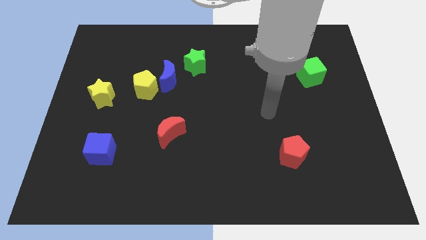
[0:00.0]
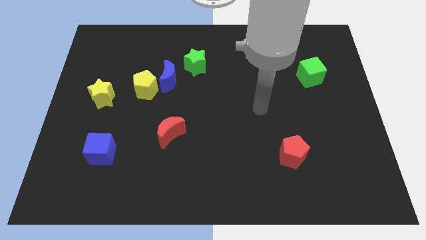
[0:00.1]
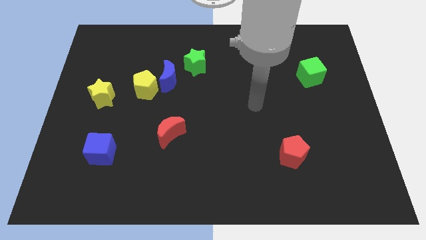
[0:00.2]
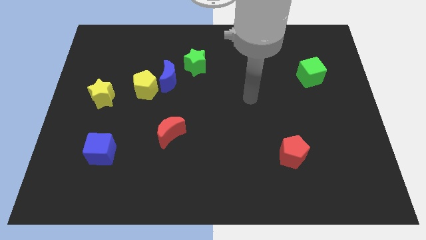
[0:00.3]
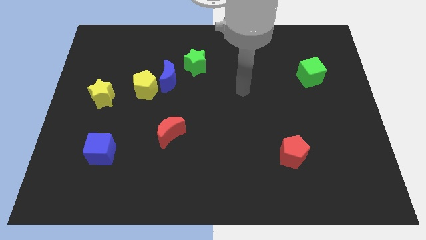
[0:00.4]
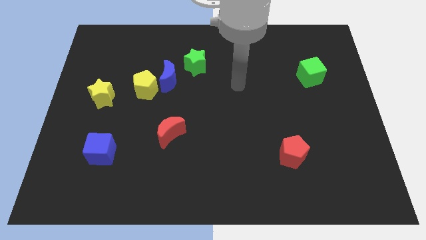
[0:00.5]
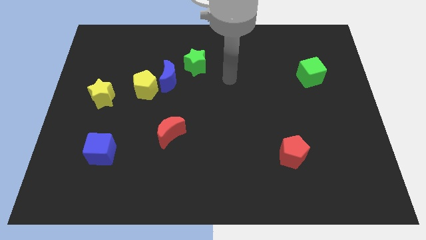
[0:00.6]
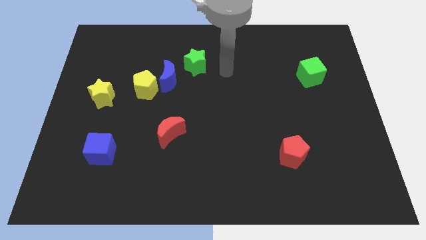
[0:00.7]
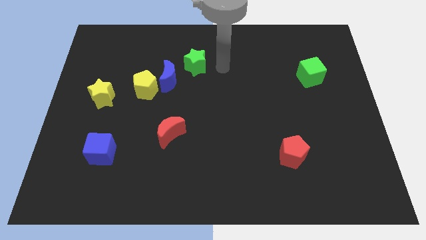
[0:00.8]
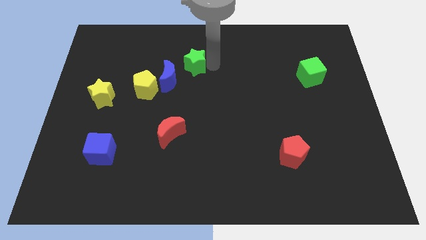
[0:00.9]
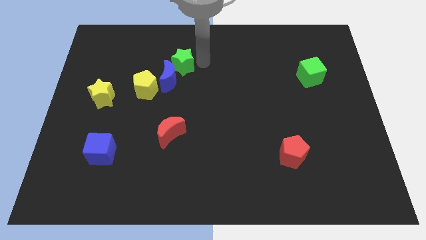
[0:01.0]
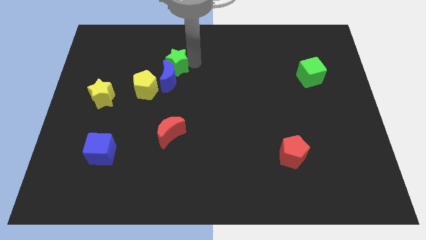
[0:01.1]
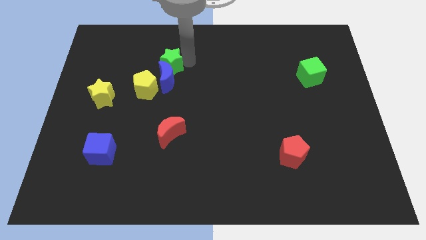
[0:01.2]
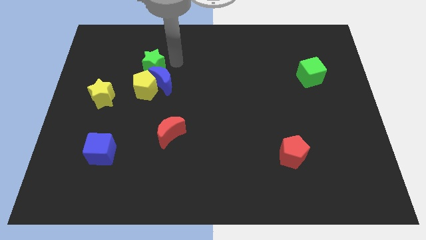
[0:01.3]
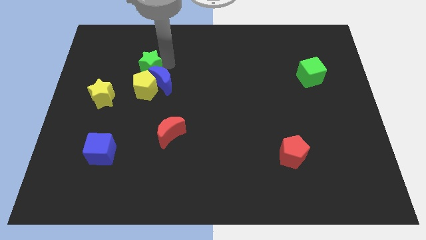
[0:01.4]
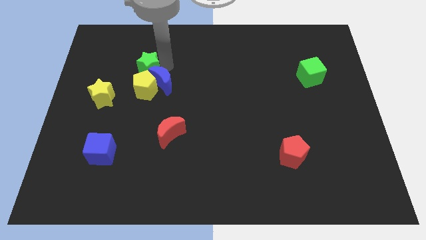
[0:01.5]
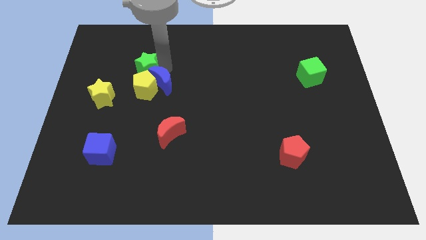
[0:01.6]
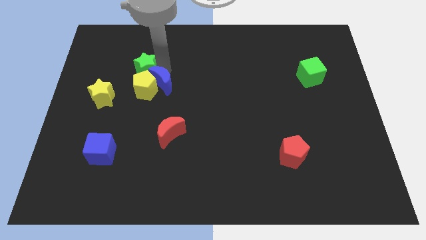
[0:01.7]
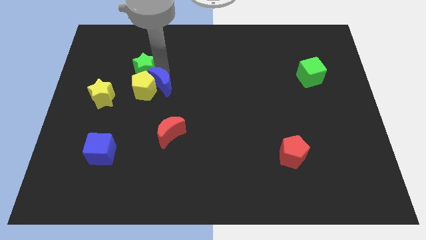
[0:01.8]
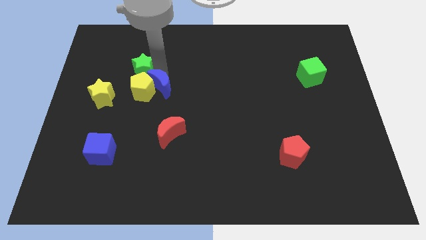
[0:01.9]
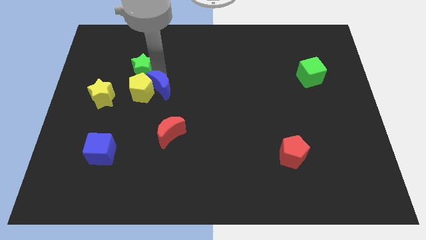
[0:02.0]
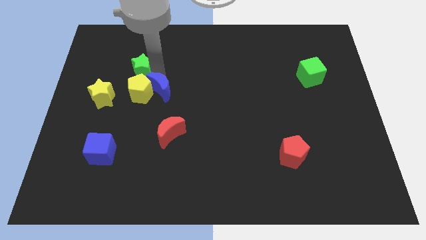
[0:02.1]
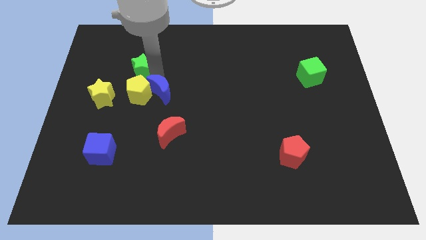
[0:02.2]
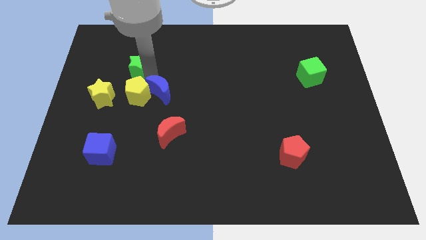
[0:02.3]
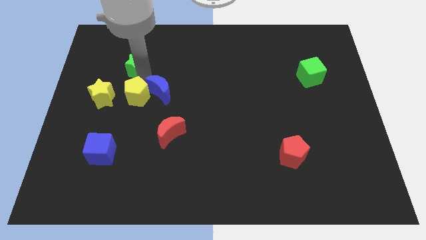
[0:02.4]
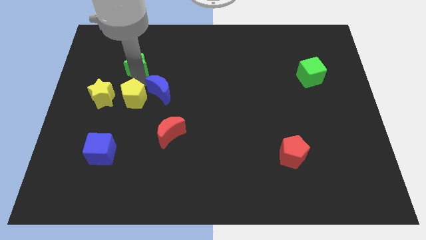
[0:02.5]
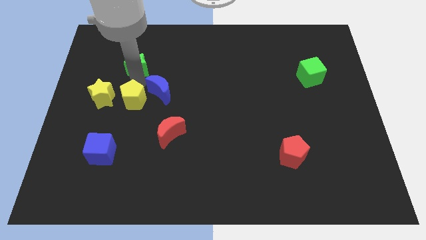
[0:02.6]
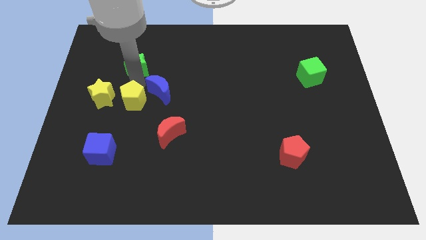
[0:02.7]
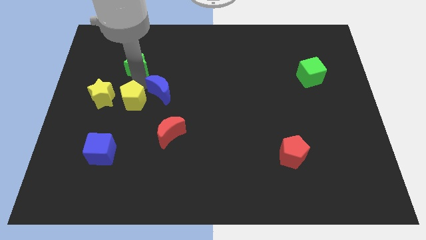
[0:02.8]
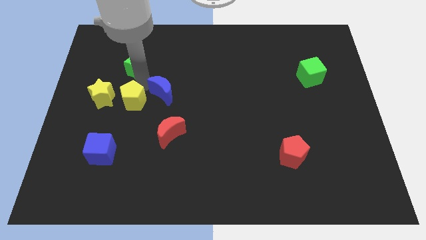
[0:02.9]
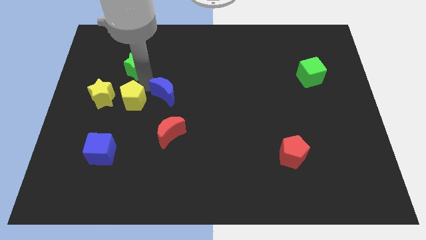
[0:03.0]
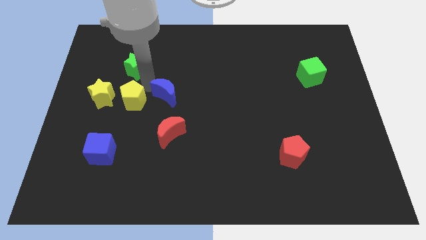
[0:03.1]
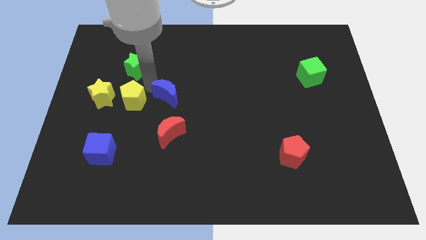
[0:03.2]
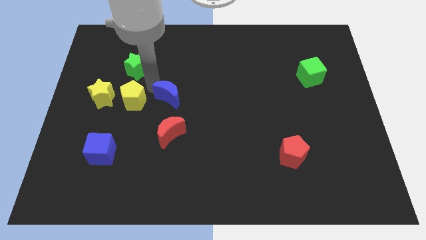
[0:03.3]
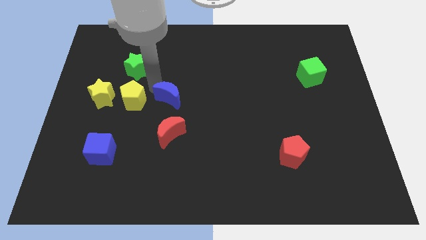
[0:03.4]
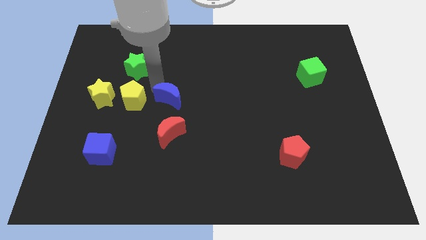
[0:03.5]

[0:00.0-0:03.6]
separate the blue moon from the yellow pentagon and green star

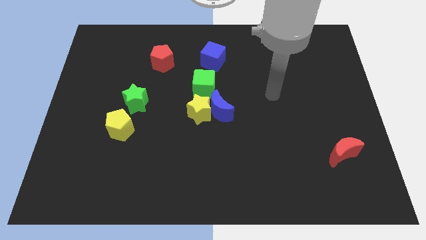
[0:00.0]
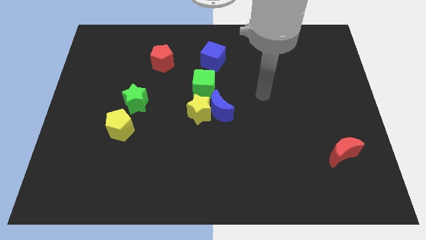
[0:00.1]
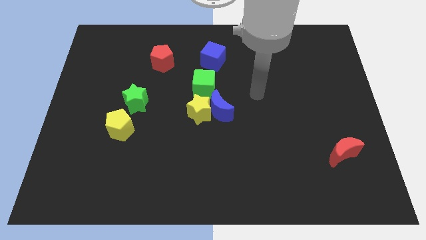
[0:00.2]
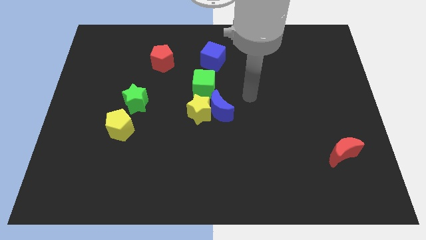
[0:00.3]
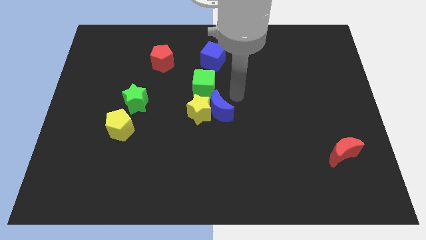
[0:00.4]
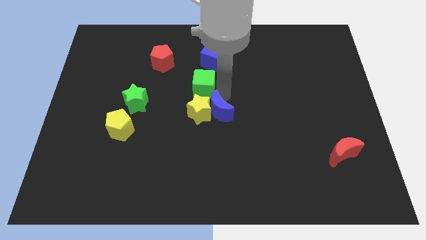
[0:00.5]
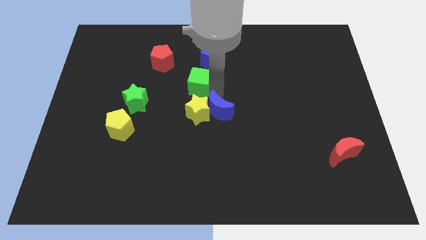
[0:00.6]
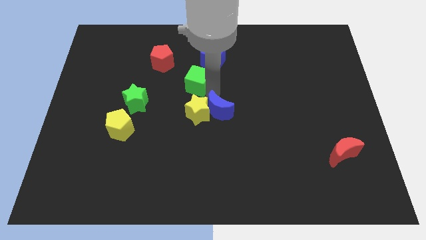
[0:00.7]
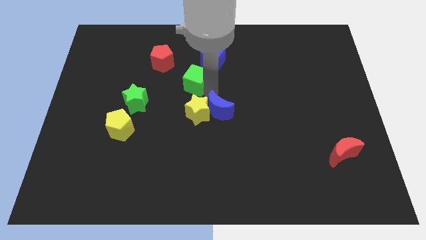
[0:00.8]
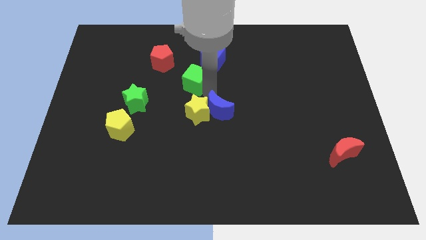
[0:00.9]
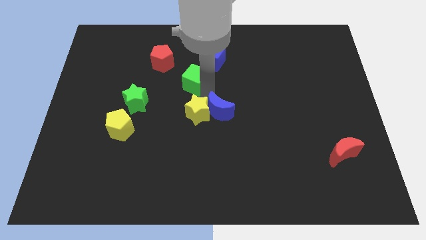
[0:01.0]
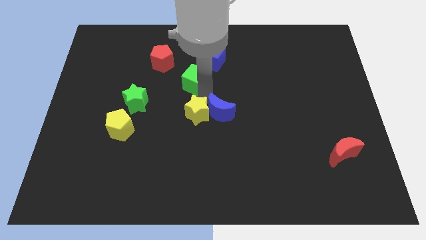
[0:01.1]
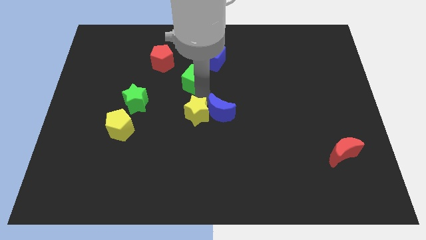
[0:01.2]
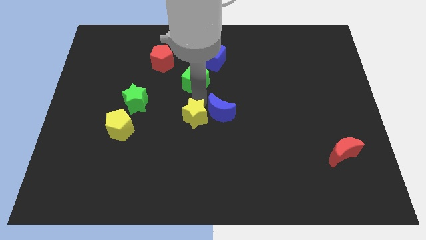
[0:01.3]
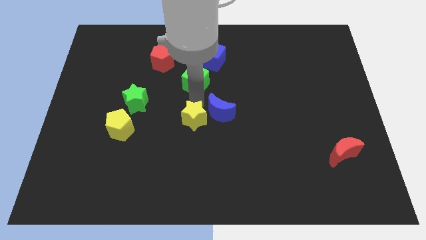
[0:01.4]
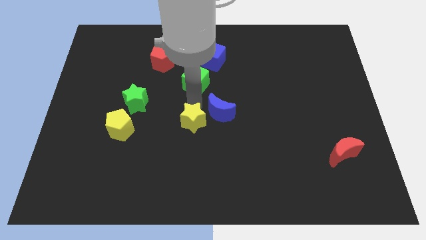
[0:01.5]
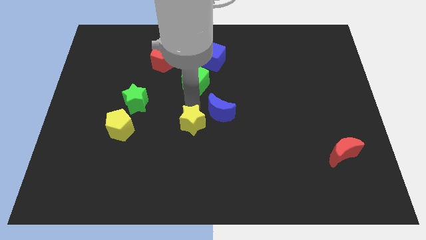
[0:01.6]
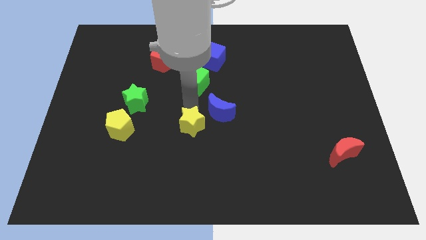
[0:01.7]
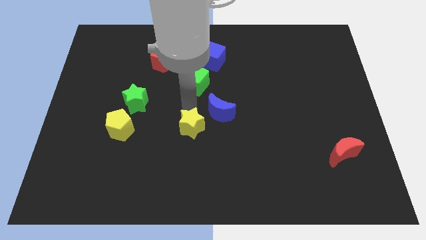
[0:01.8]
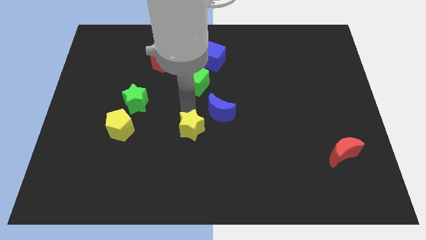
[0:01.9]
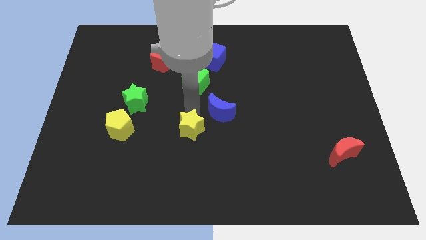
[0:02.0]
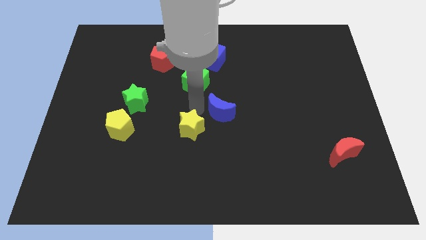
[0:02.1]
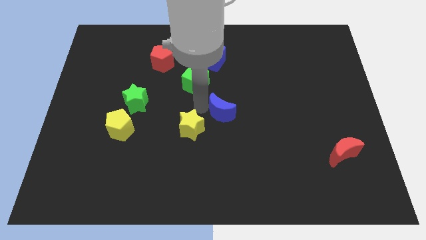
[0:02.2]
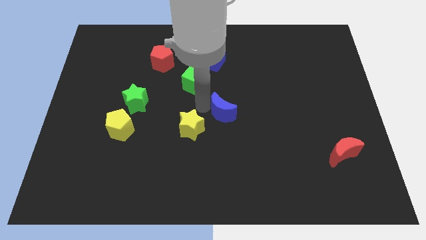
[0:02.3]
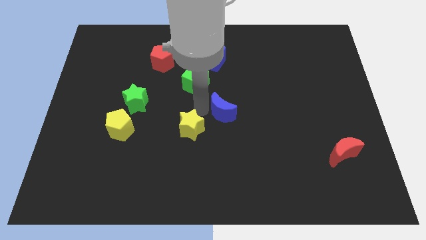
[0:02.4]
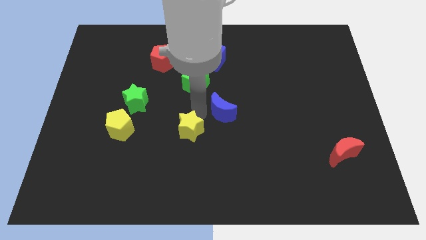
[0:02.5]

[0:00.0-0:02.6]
pull the yellow star apart from the blue moon and green cube

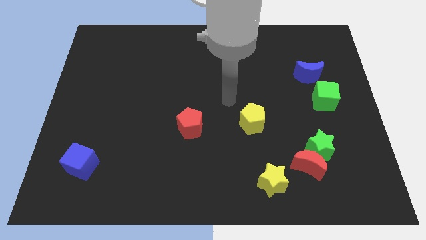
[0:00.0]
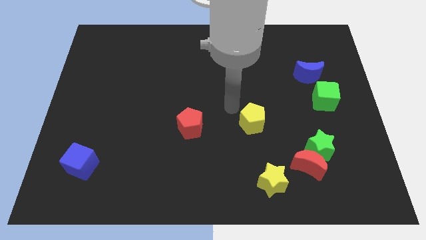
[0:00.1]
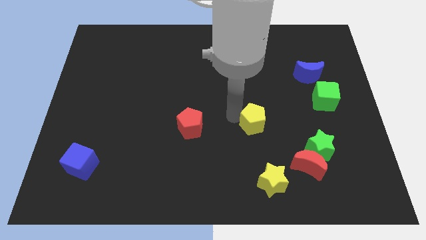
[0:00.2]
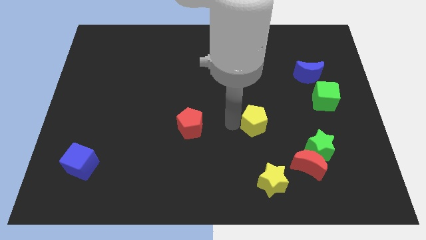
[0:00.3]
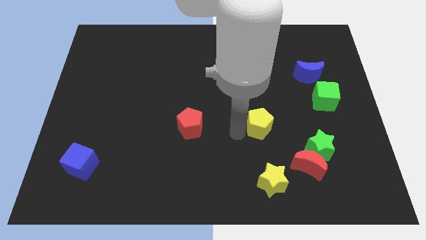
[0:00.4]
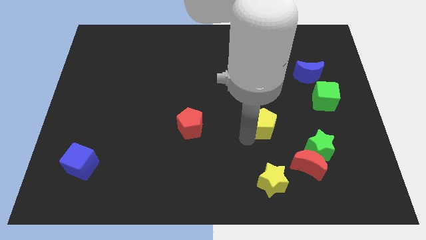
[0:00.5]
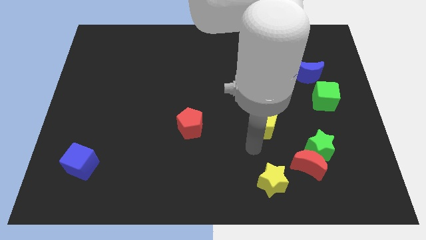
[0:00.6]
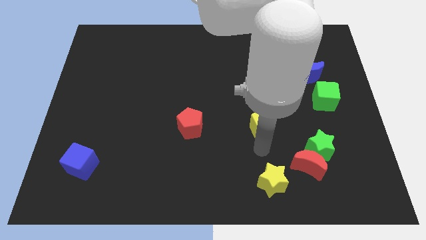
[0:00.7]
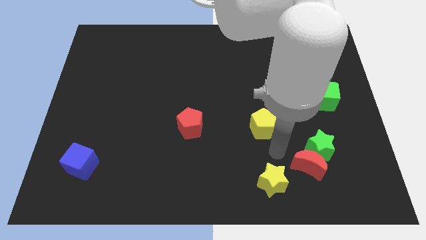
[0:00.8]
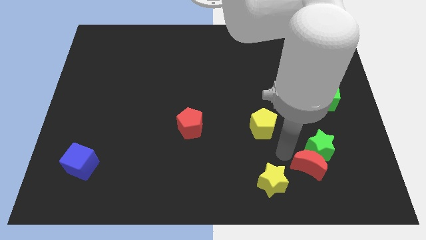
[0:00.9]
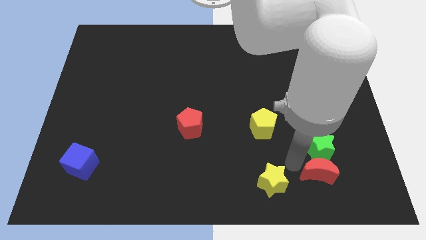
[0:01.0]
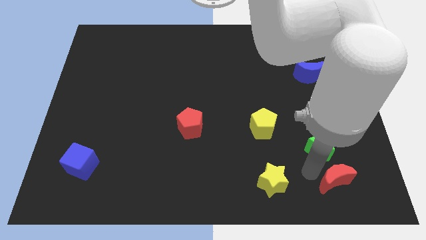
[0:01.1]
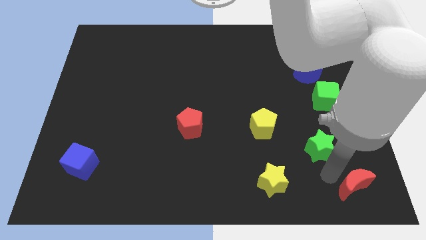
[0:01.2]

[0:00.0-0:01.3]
move the green star away from the red moon

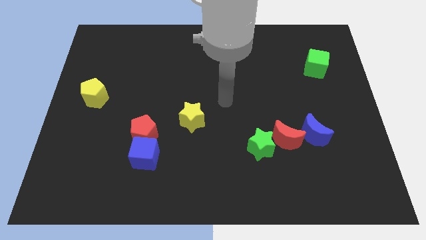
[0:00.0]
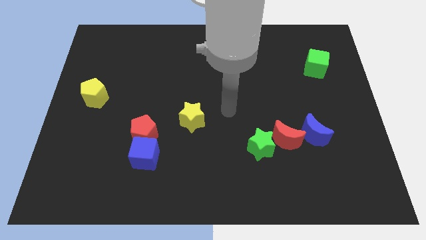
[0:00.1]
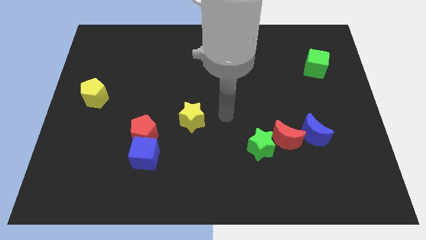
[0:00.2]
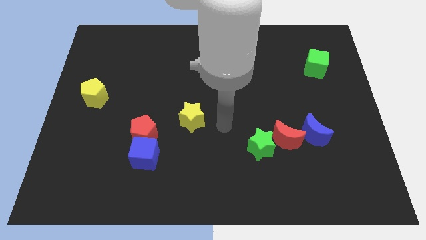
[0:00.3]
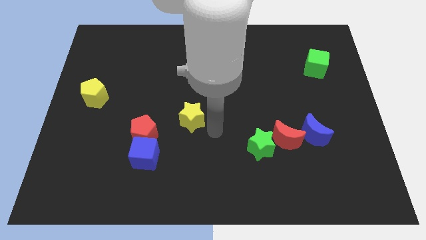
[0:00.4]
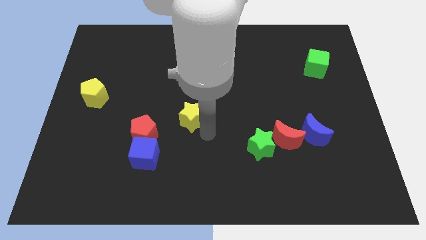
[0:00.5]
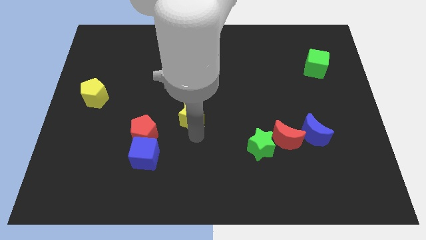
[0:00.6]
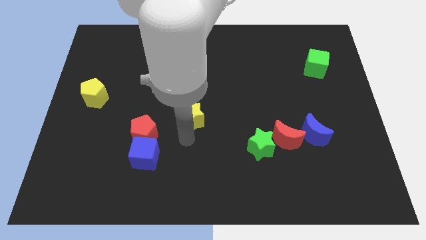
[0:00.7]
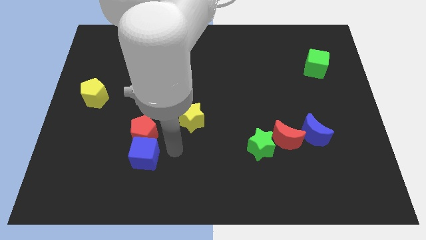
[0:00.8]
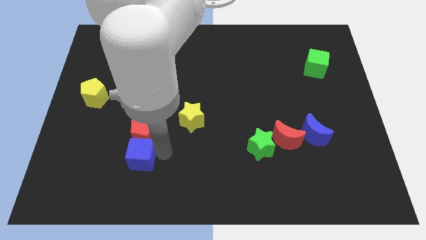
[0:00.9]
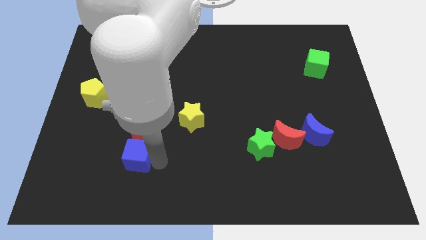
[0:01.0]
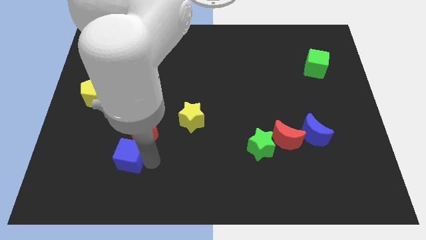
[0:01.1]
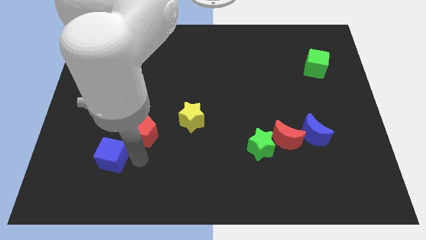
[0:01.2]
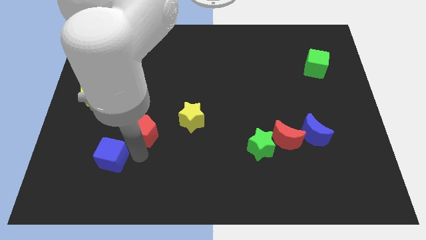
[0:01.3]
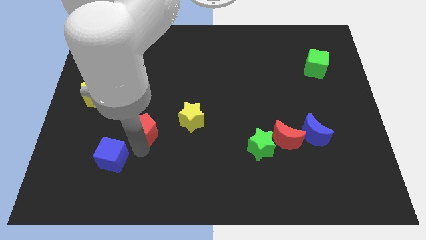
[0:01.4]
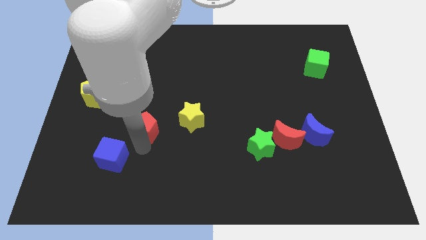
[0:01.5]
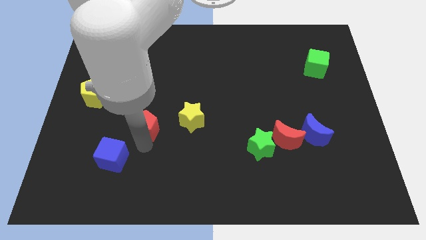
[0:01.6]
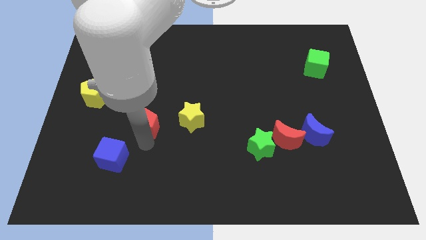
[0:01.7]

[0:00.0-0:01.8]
move the red pentagon away from the blue cube

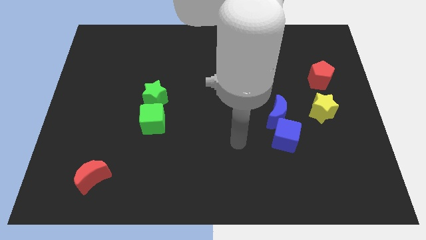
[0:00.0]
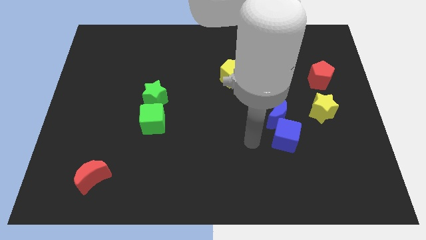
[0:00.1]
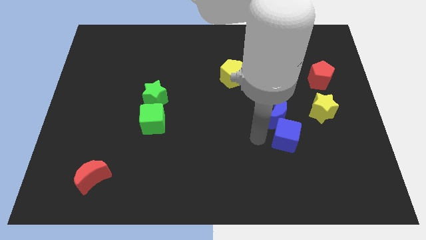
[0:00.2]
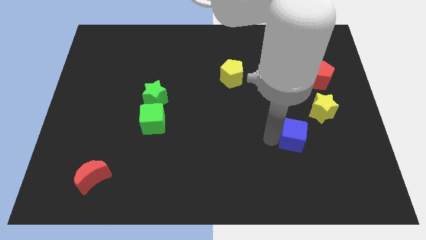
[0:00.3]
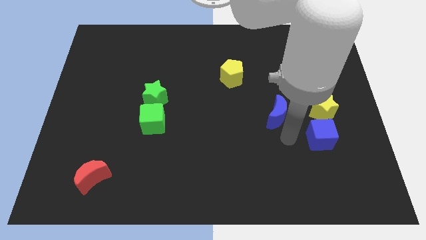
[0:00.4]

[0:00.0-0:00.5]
pull the blue moon apart from the blue cube
